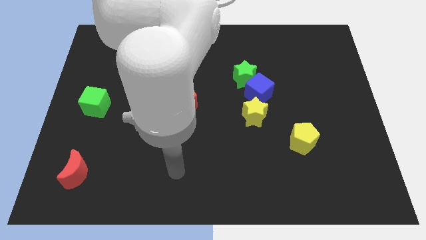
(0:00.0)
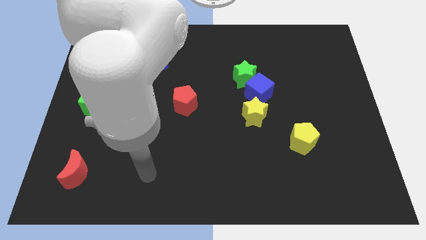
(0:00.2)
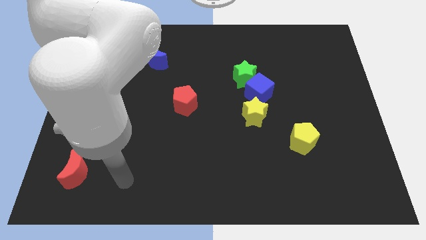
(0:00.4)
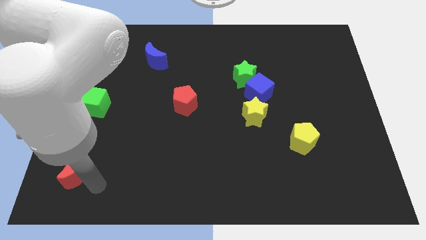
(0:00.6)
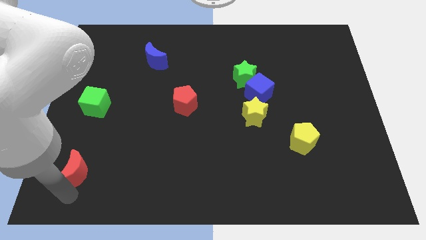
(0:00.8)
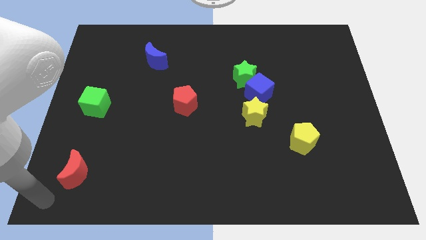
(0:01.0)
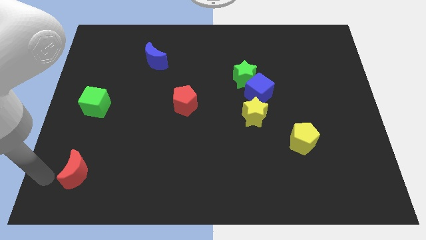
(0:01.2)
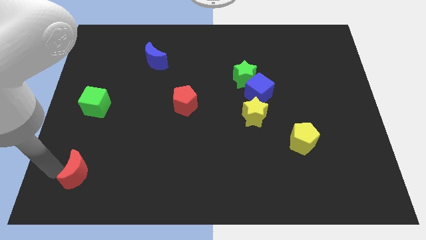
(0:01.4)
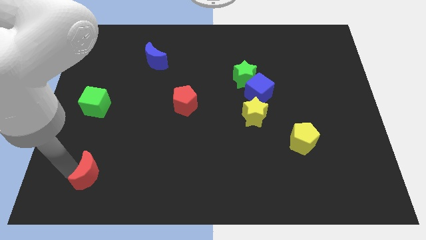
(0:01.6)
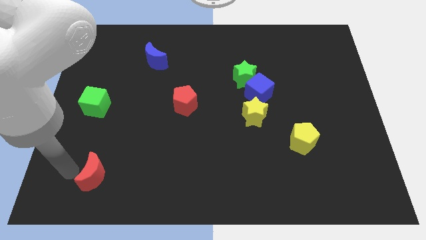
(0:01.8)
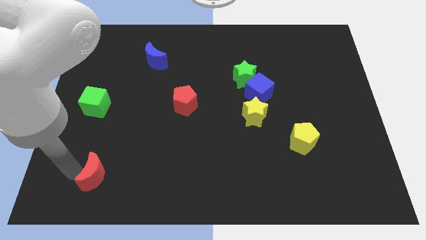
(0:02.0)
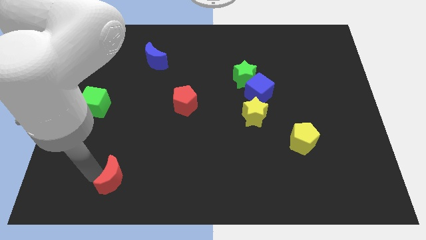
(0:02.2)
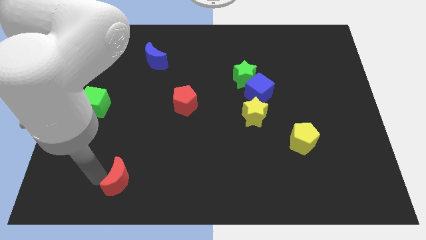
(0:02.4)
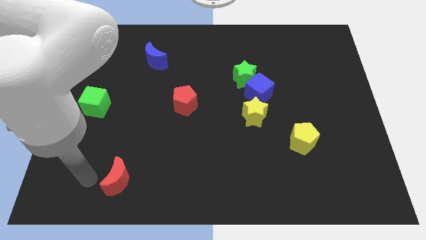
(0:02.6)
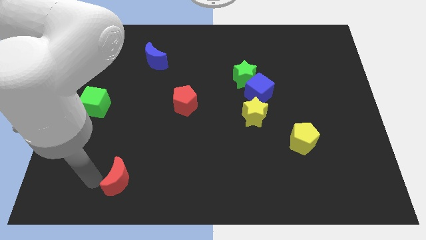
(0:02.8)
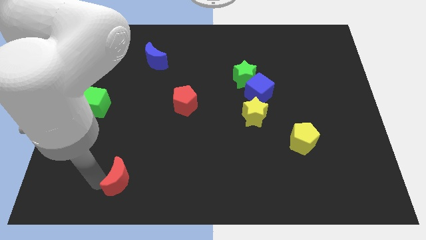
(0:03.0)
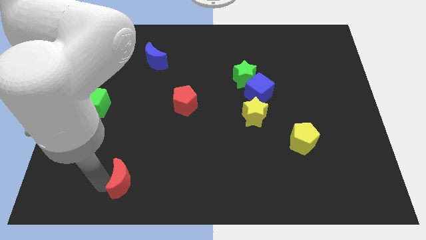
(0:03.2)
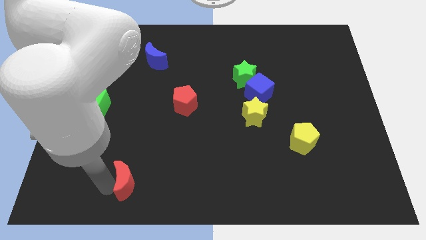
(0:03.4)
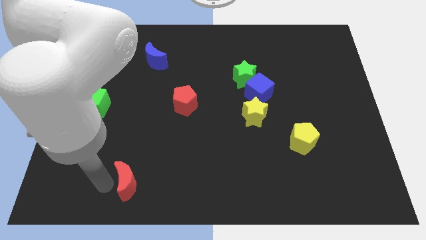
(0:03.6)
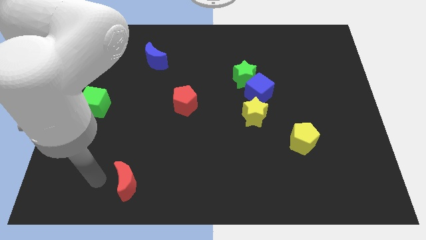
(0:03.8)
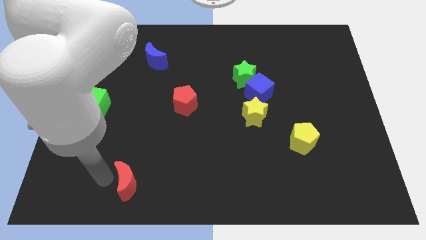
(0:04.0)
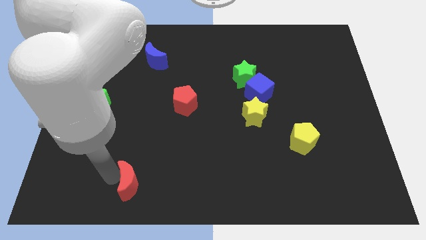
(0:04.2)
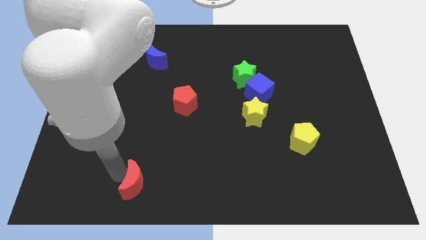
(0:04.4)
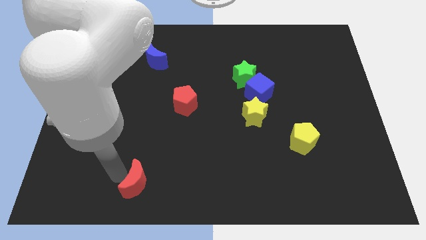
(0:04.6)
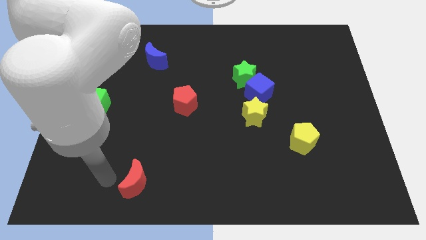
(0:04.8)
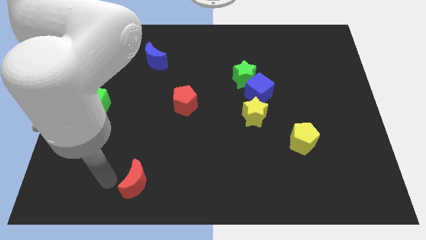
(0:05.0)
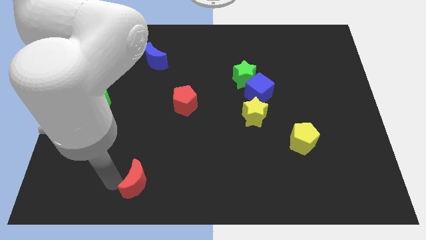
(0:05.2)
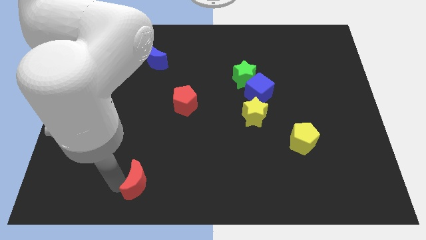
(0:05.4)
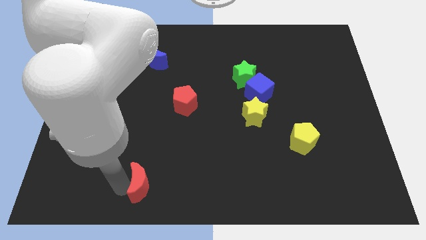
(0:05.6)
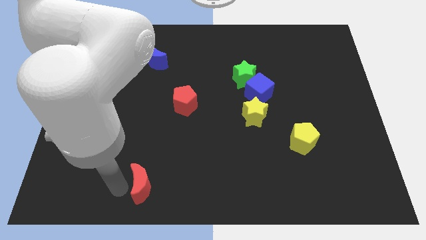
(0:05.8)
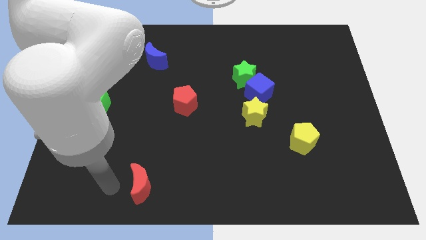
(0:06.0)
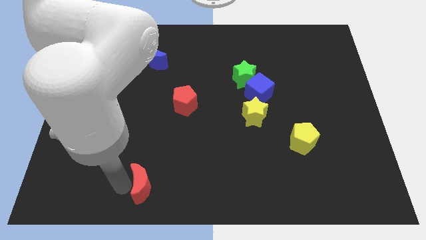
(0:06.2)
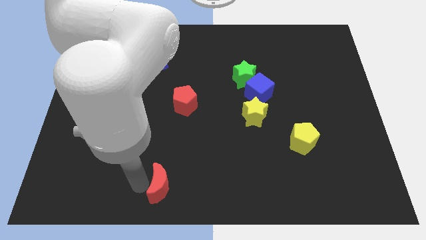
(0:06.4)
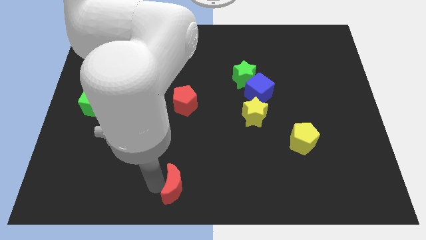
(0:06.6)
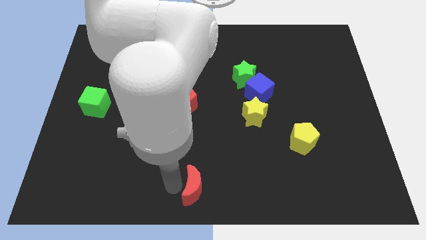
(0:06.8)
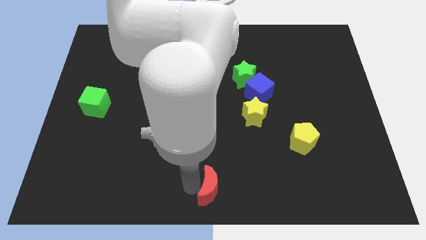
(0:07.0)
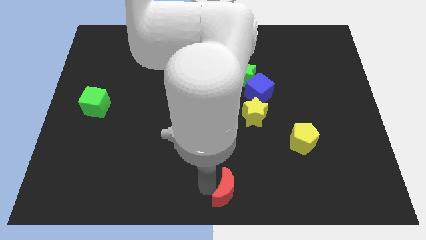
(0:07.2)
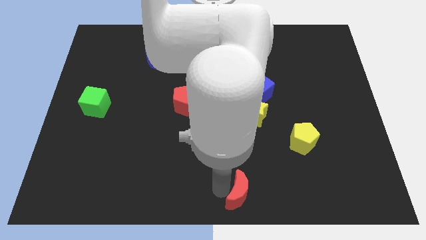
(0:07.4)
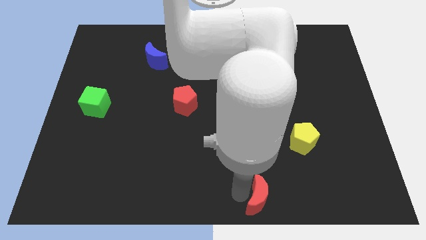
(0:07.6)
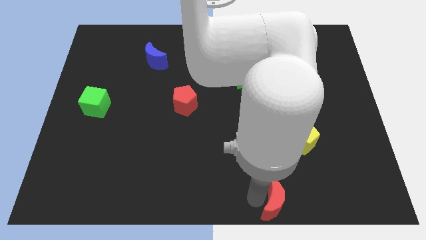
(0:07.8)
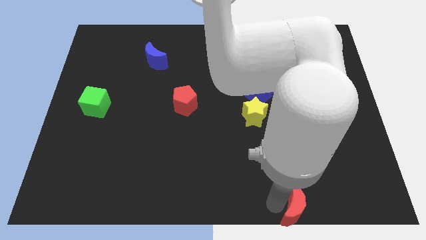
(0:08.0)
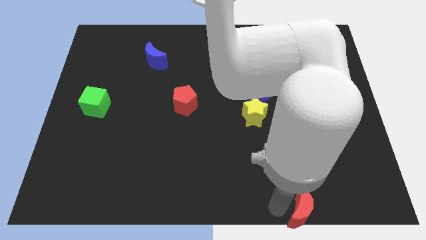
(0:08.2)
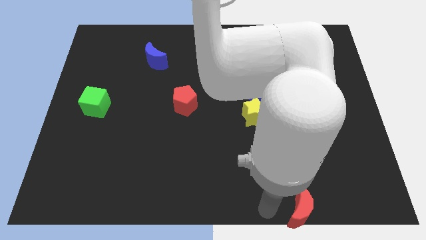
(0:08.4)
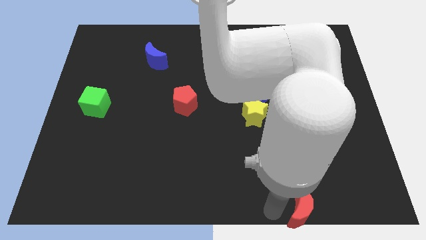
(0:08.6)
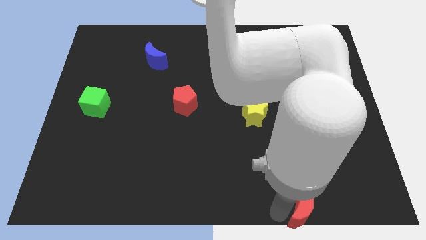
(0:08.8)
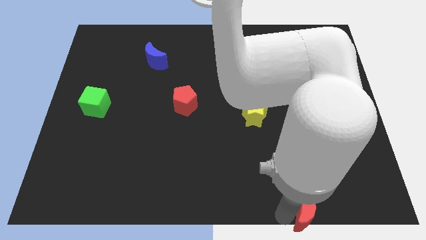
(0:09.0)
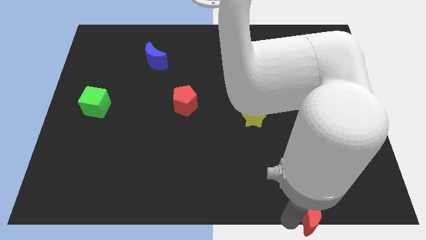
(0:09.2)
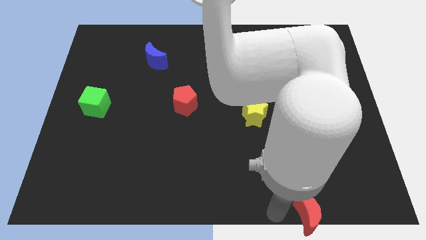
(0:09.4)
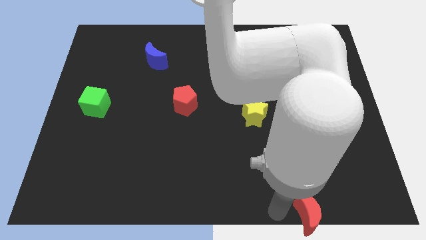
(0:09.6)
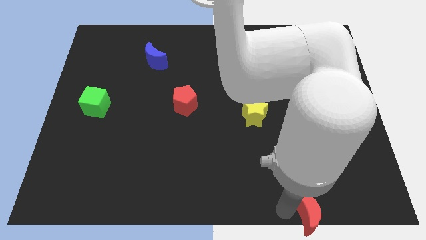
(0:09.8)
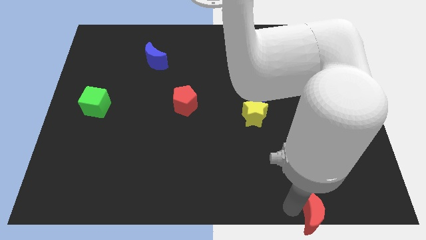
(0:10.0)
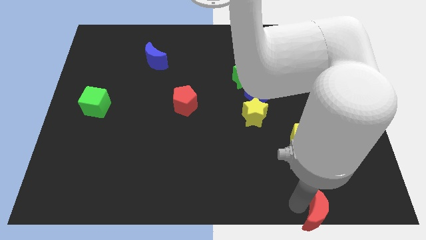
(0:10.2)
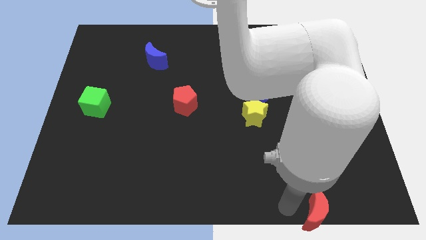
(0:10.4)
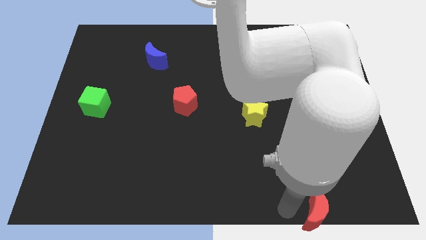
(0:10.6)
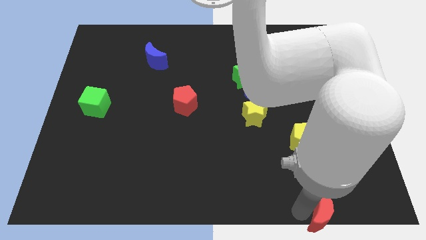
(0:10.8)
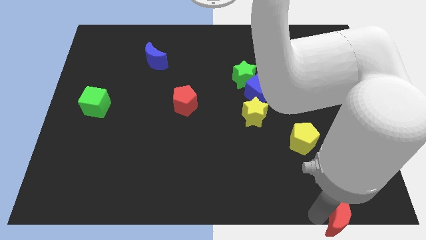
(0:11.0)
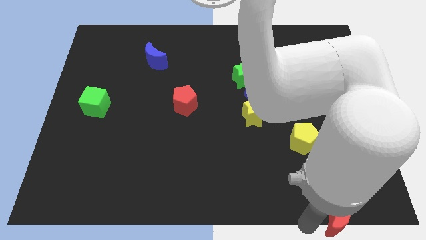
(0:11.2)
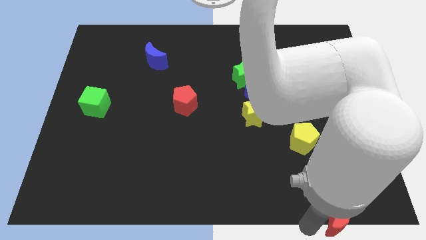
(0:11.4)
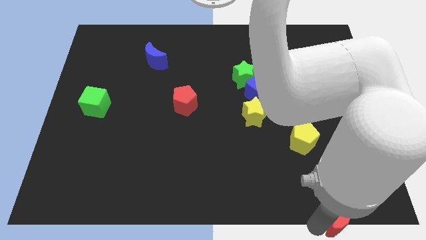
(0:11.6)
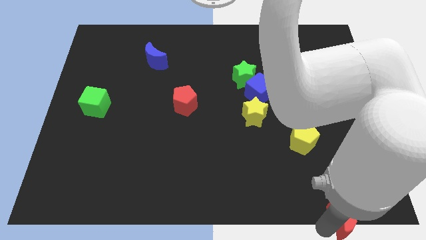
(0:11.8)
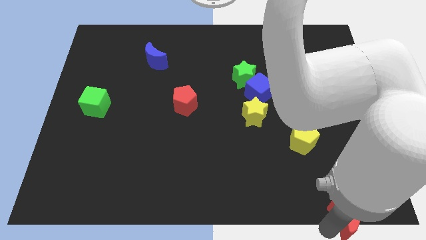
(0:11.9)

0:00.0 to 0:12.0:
move the red moon to the bottom right of the board
